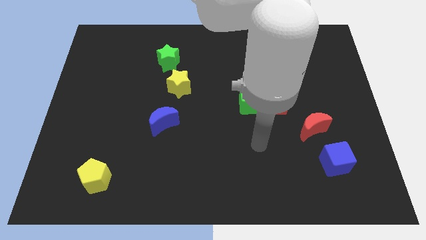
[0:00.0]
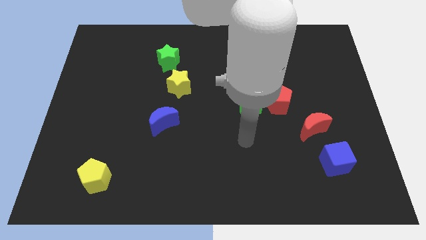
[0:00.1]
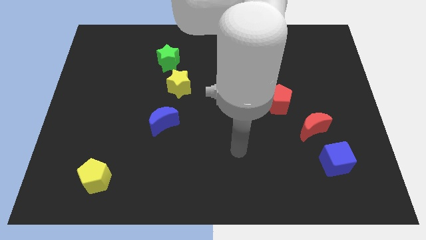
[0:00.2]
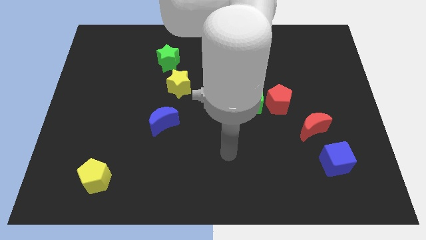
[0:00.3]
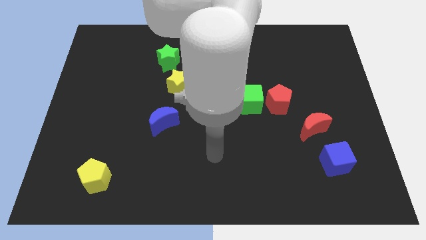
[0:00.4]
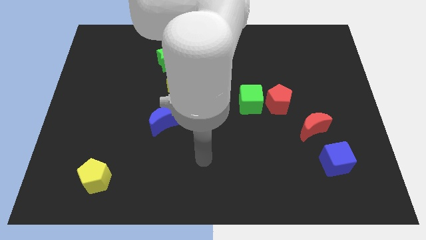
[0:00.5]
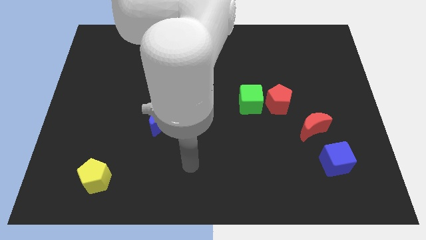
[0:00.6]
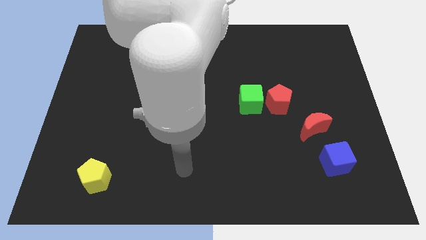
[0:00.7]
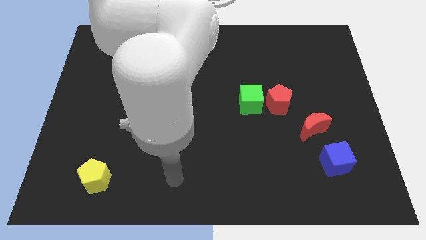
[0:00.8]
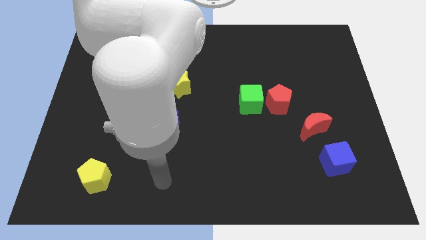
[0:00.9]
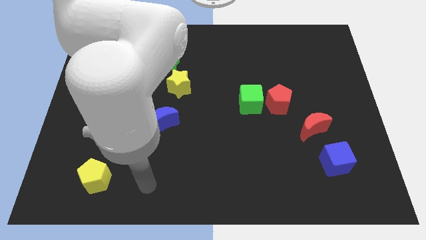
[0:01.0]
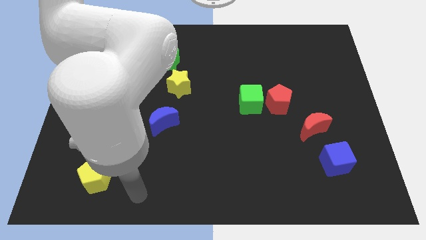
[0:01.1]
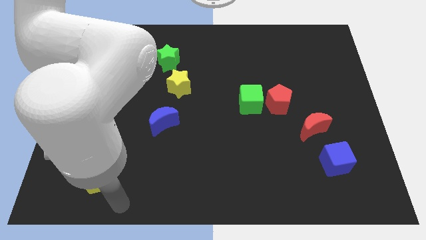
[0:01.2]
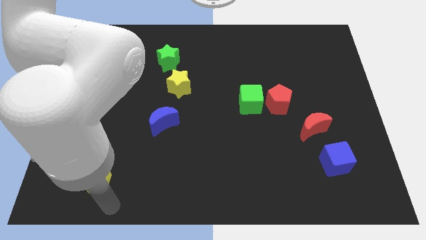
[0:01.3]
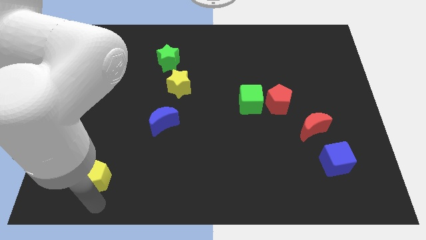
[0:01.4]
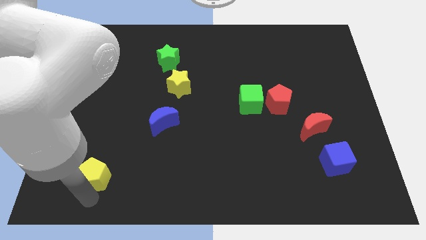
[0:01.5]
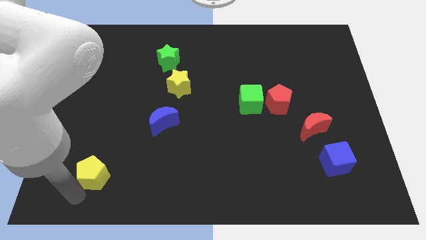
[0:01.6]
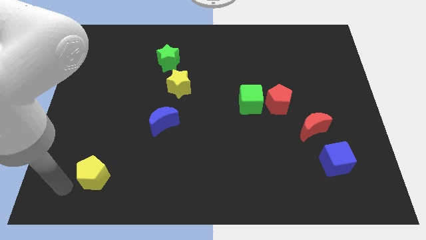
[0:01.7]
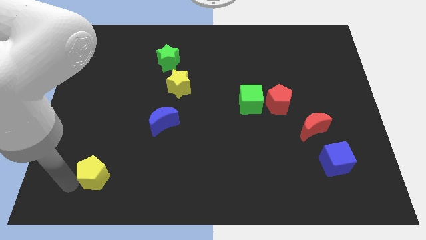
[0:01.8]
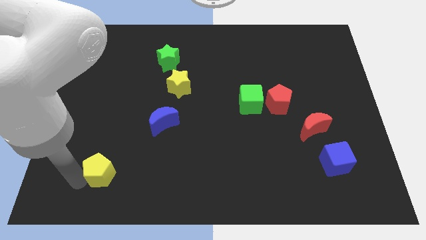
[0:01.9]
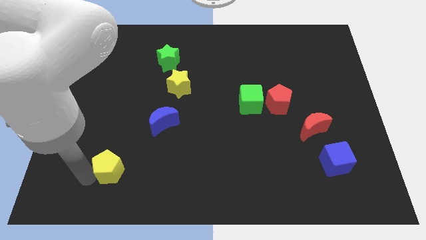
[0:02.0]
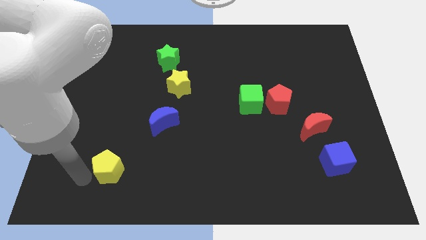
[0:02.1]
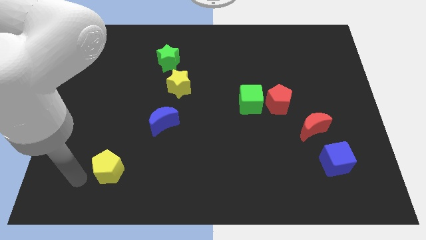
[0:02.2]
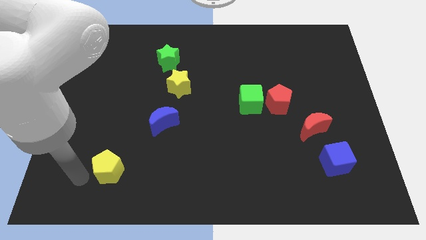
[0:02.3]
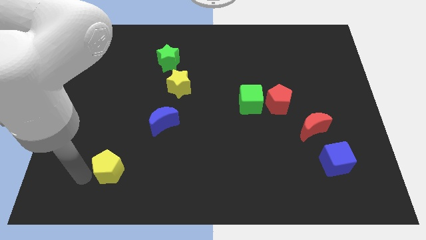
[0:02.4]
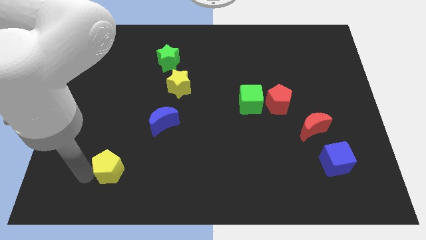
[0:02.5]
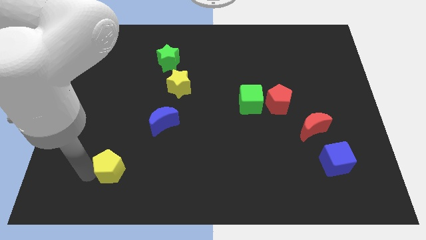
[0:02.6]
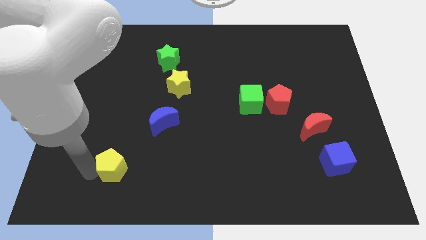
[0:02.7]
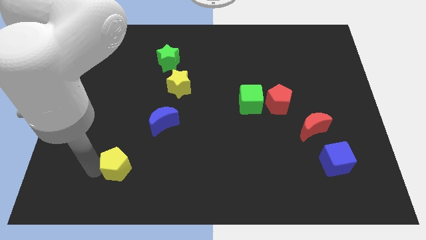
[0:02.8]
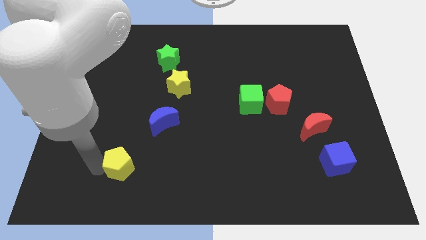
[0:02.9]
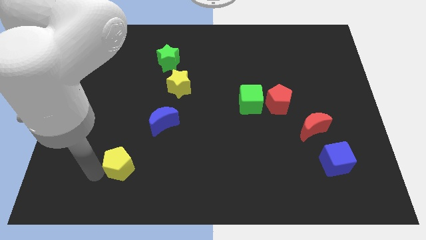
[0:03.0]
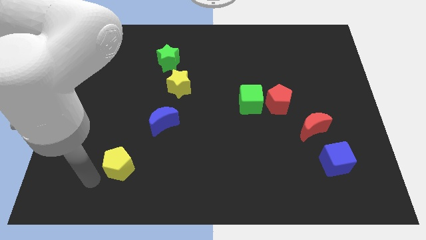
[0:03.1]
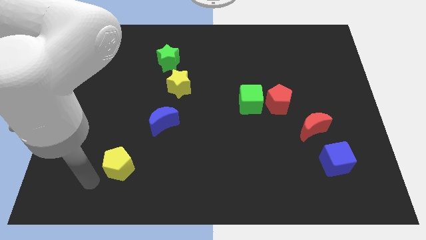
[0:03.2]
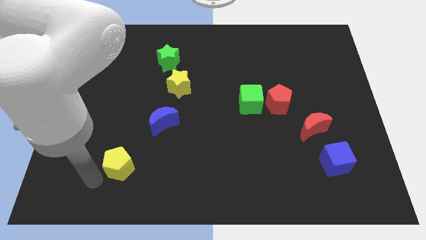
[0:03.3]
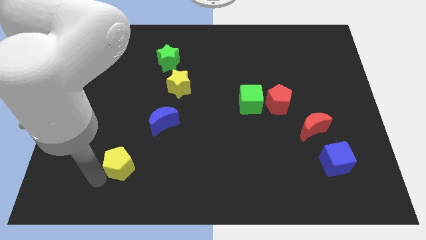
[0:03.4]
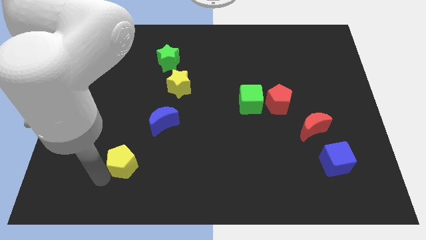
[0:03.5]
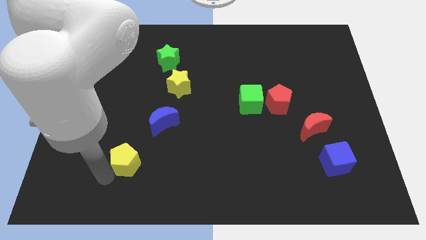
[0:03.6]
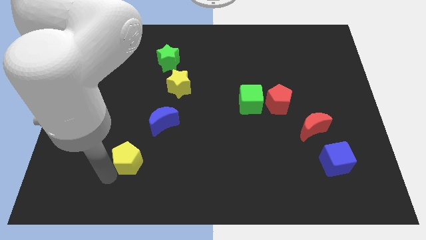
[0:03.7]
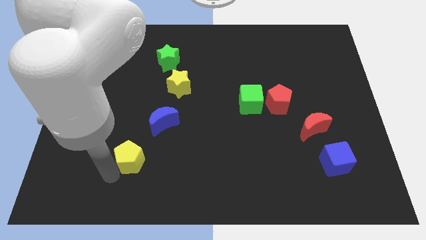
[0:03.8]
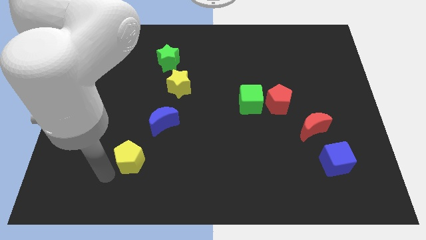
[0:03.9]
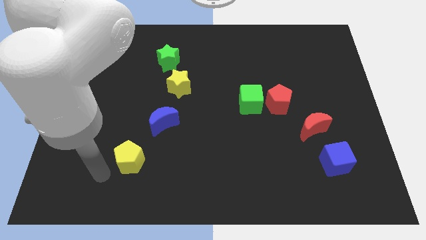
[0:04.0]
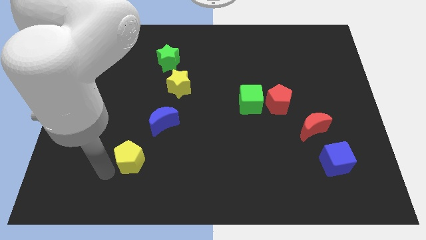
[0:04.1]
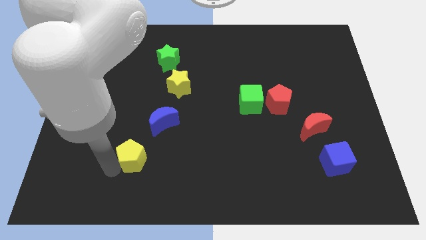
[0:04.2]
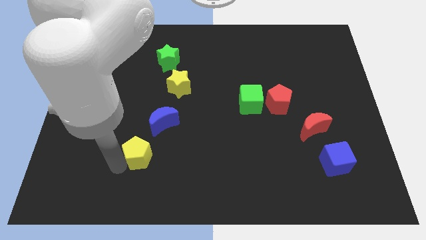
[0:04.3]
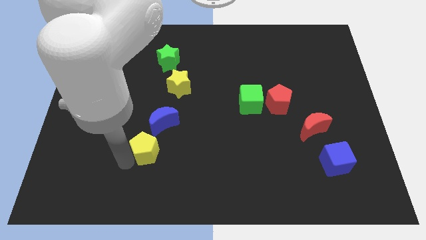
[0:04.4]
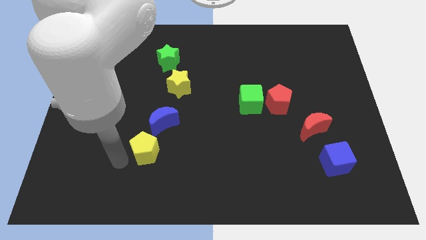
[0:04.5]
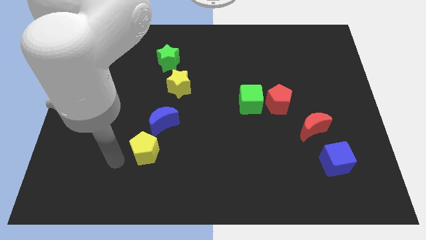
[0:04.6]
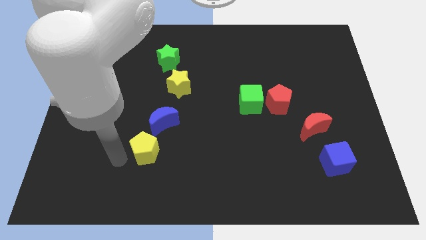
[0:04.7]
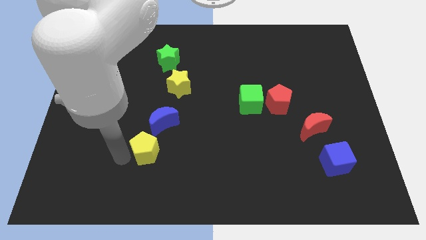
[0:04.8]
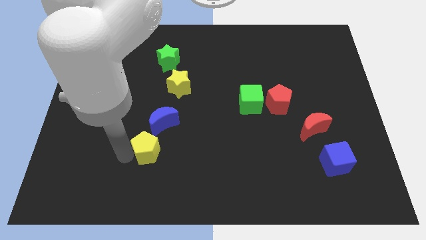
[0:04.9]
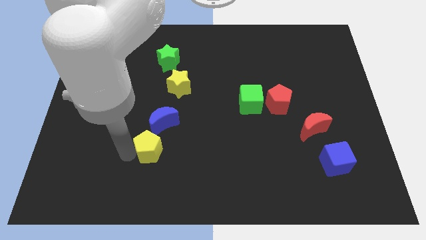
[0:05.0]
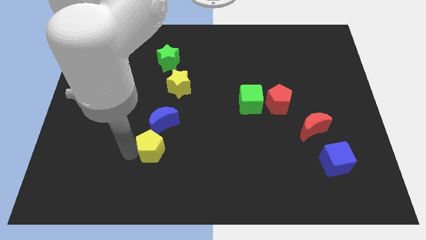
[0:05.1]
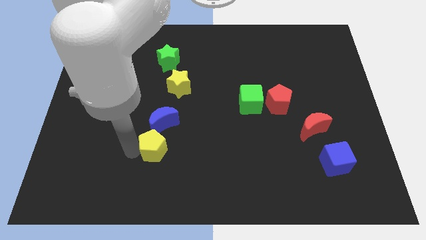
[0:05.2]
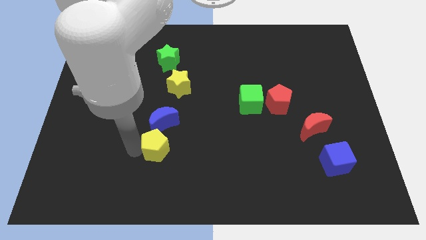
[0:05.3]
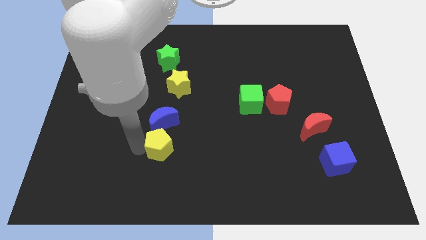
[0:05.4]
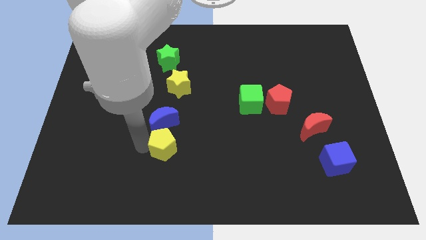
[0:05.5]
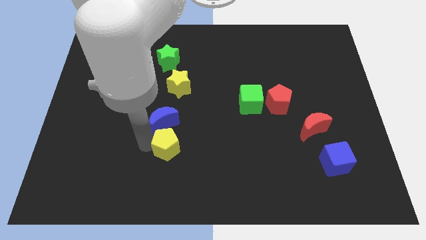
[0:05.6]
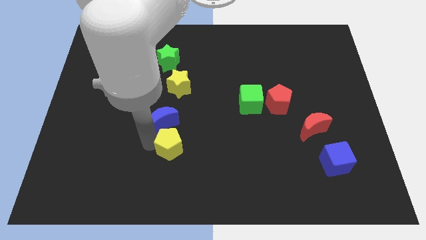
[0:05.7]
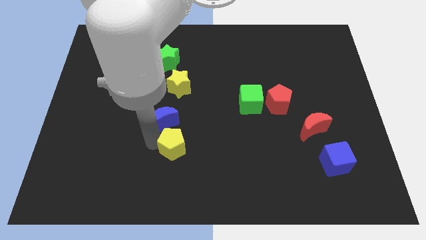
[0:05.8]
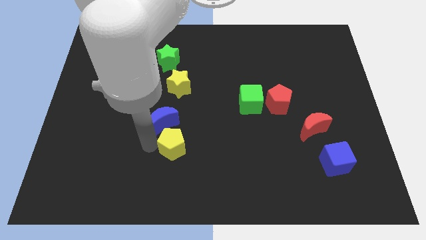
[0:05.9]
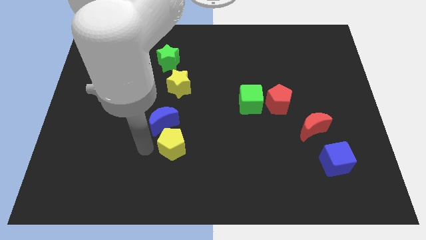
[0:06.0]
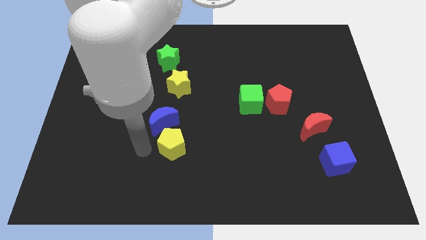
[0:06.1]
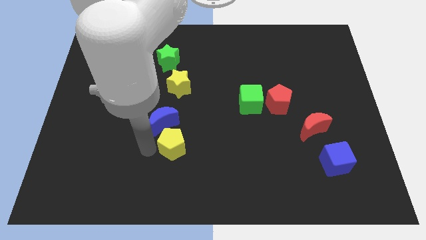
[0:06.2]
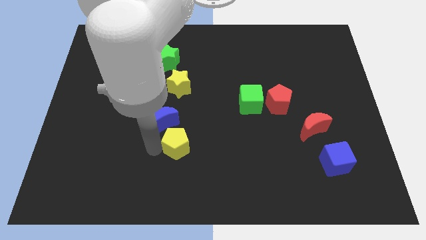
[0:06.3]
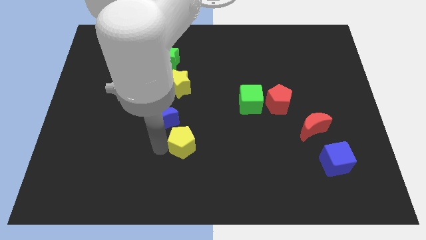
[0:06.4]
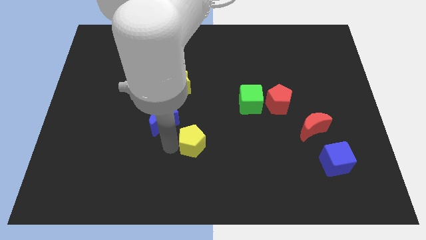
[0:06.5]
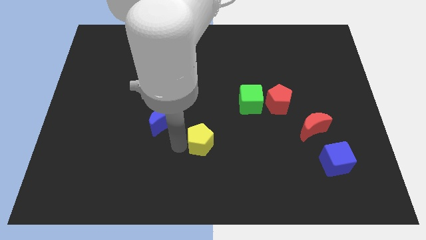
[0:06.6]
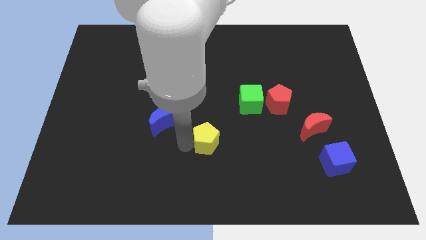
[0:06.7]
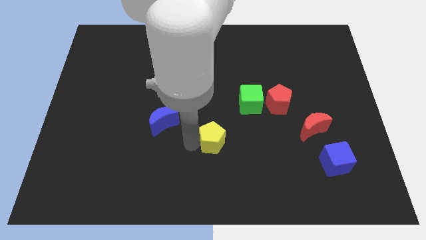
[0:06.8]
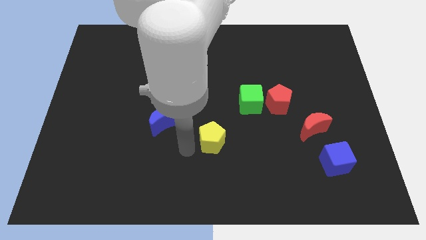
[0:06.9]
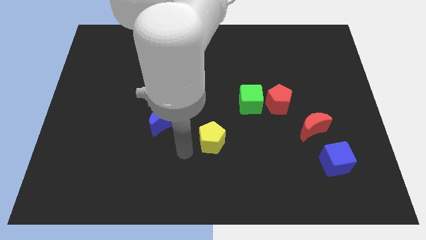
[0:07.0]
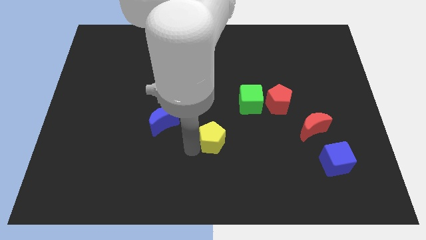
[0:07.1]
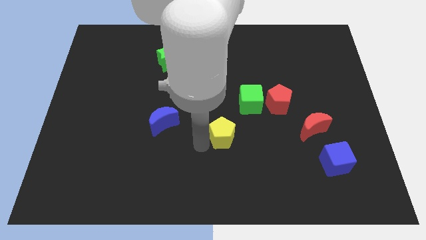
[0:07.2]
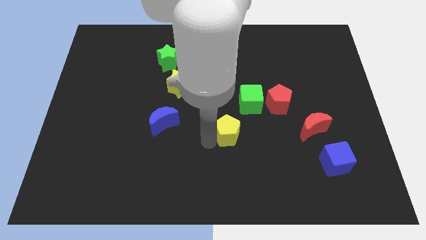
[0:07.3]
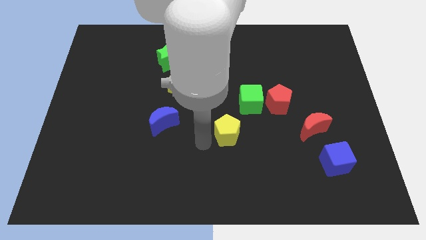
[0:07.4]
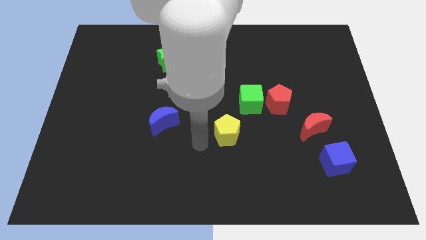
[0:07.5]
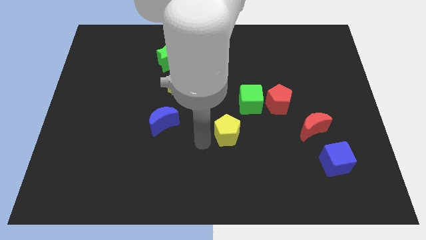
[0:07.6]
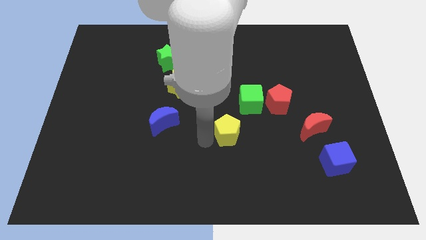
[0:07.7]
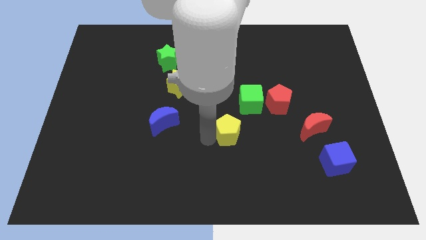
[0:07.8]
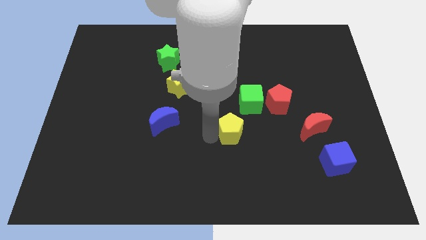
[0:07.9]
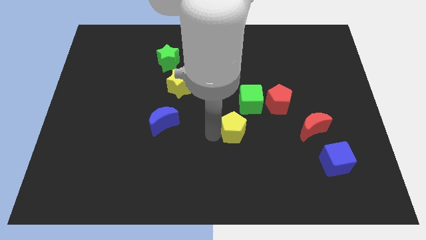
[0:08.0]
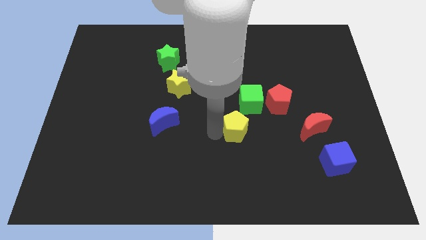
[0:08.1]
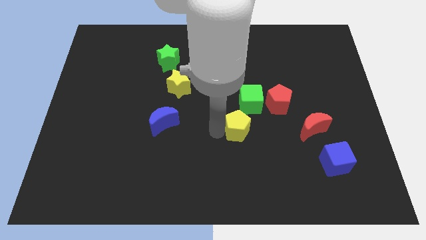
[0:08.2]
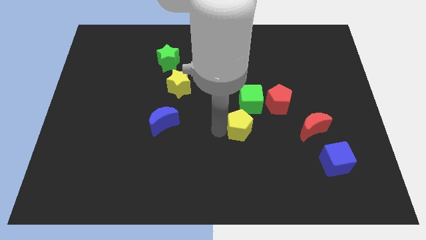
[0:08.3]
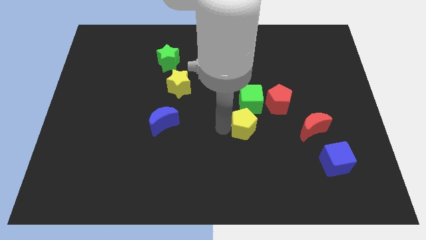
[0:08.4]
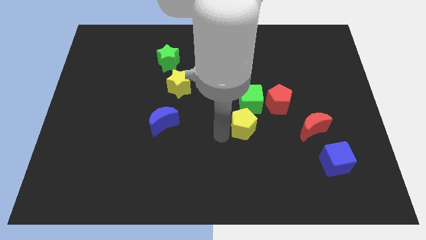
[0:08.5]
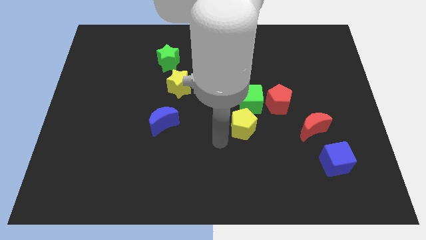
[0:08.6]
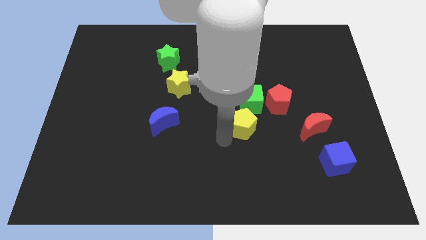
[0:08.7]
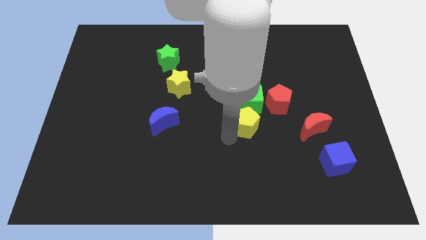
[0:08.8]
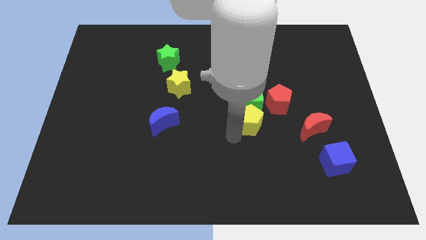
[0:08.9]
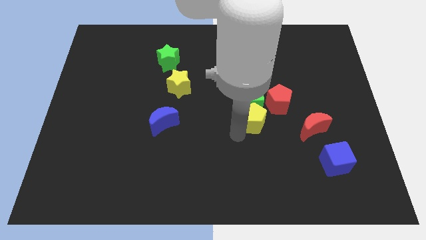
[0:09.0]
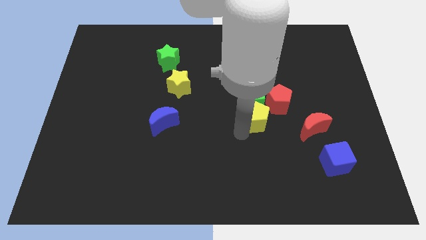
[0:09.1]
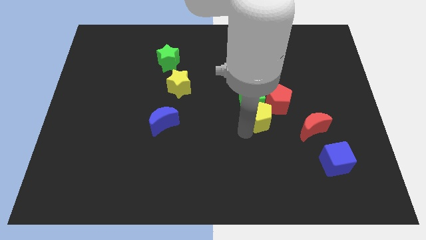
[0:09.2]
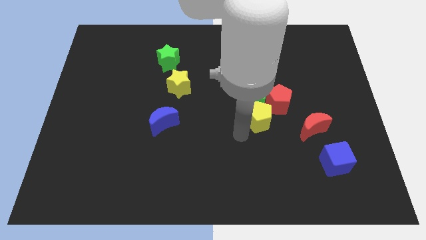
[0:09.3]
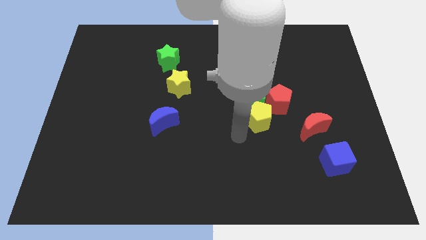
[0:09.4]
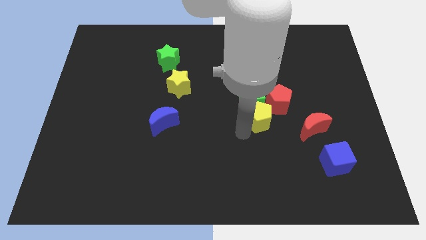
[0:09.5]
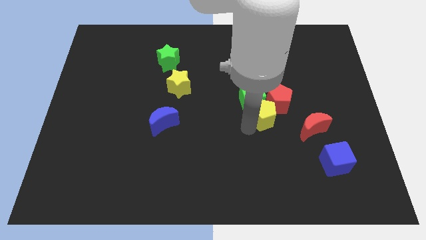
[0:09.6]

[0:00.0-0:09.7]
push the yellow pentagon next to the red pentagon
